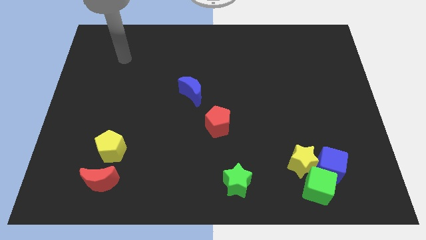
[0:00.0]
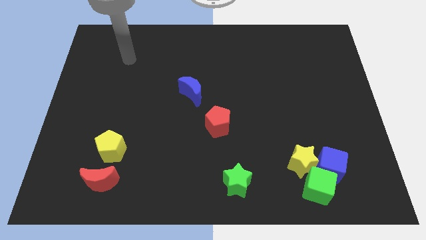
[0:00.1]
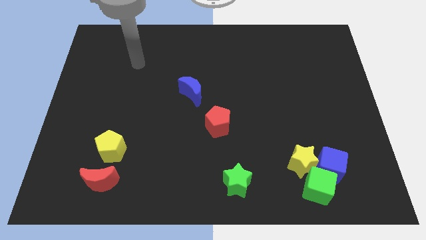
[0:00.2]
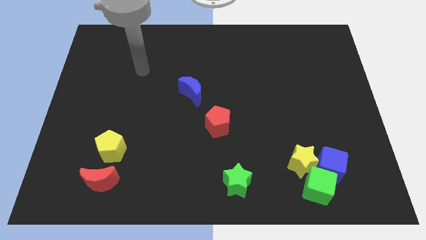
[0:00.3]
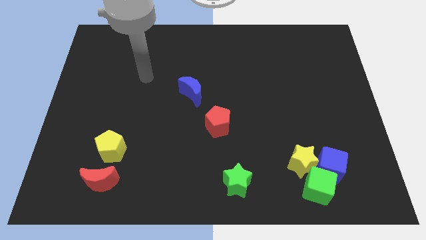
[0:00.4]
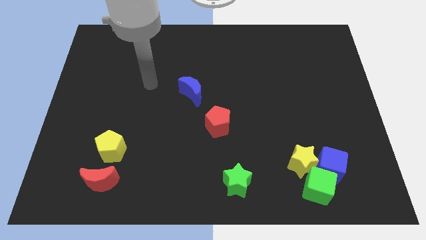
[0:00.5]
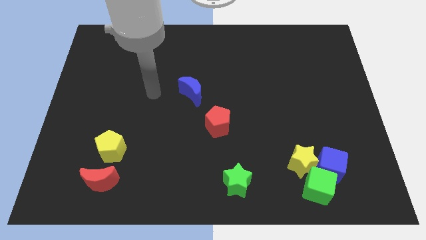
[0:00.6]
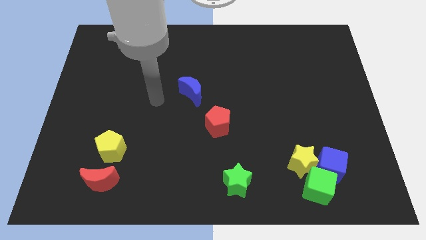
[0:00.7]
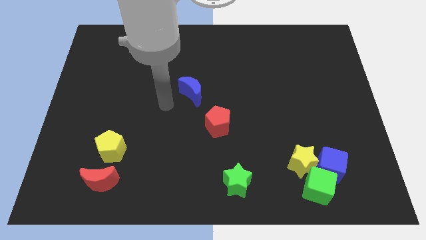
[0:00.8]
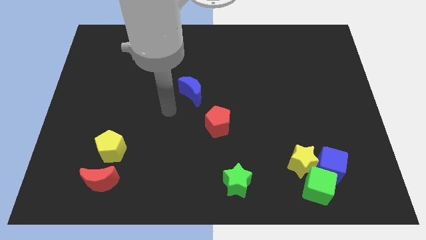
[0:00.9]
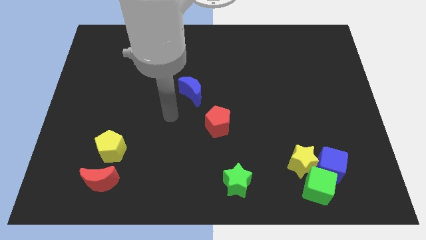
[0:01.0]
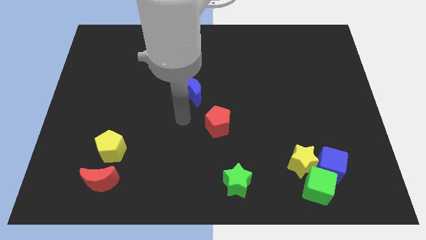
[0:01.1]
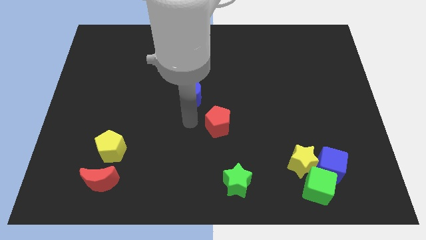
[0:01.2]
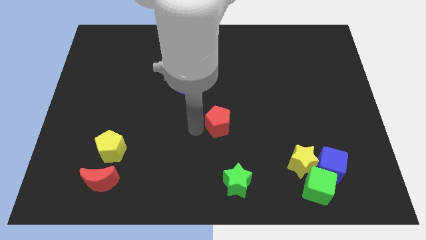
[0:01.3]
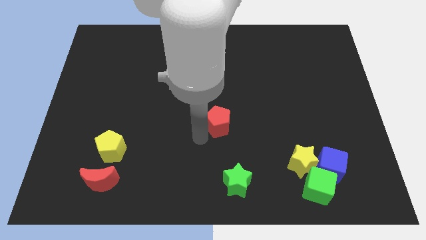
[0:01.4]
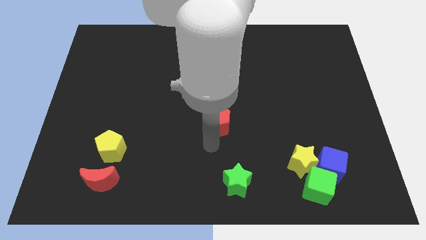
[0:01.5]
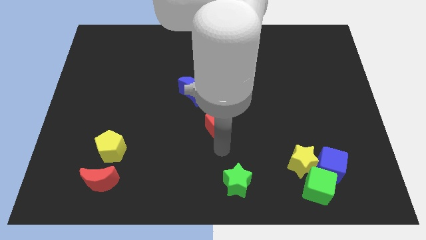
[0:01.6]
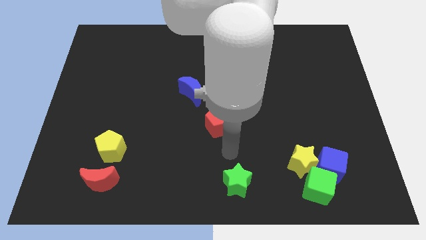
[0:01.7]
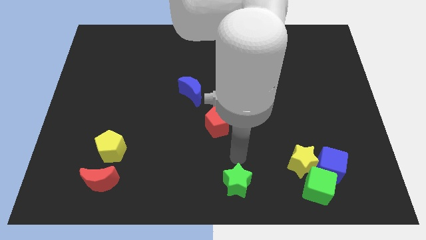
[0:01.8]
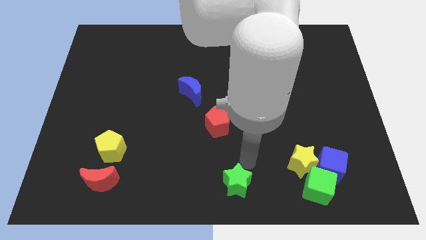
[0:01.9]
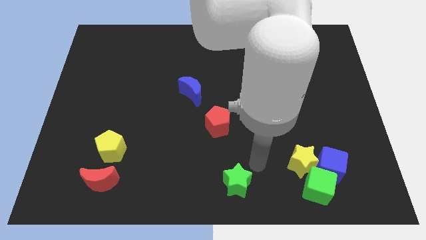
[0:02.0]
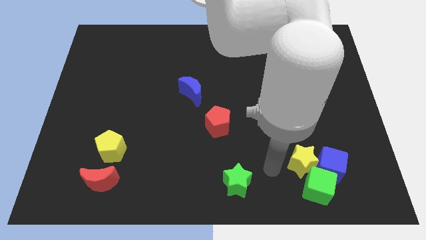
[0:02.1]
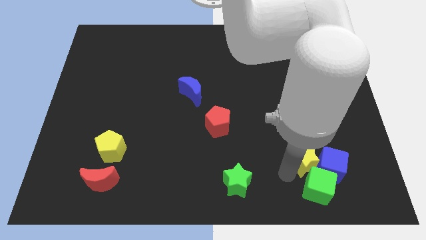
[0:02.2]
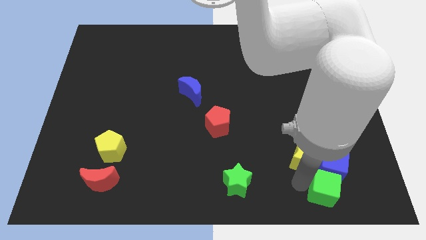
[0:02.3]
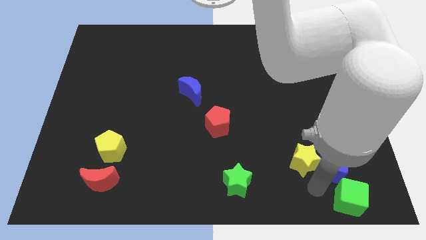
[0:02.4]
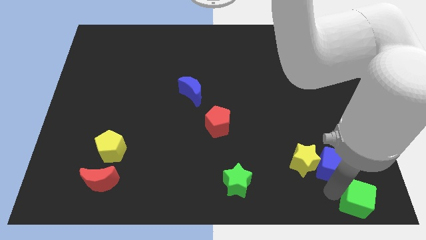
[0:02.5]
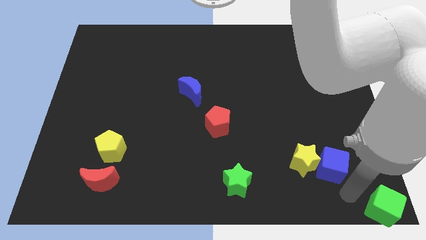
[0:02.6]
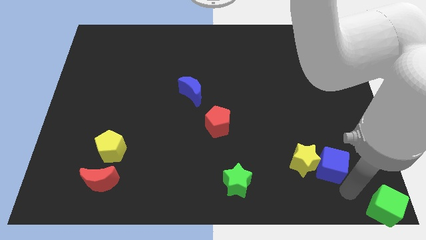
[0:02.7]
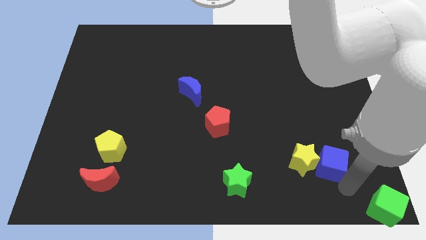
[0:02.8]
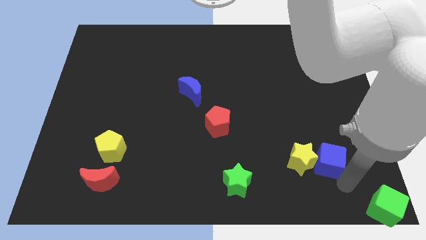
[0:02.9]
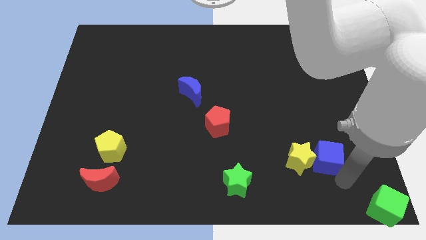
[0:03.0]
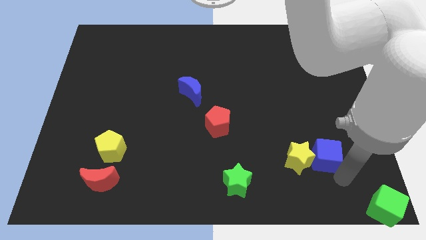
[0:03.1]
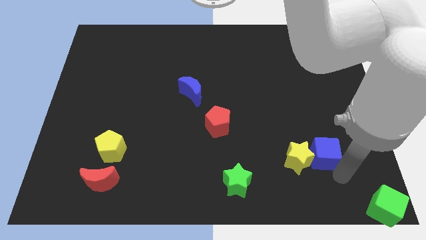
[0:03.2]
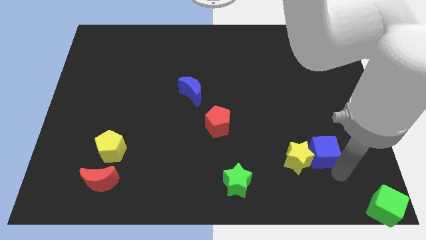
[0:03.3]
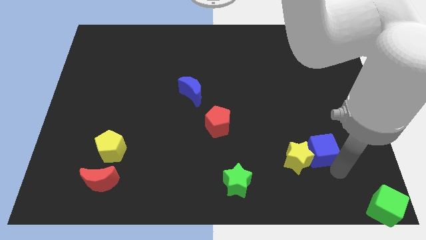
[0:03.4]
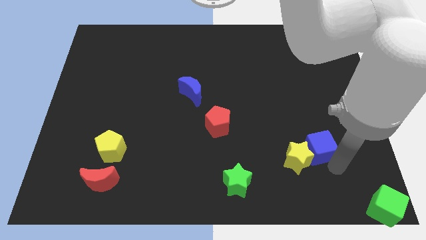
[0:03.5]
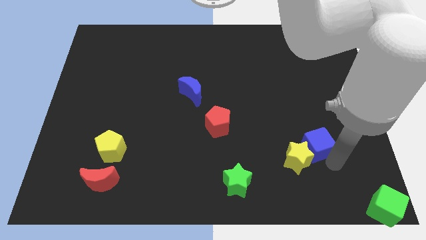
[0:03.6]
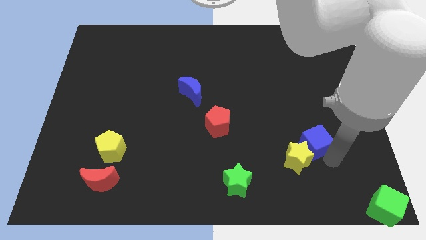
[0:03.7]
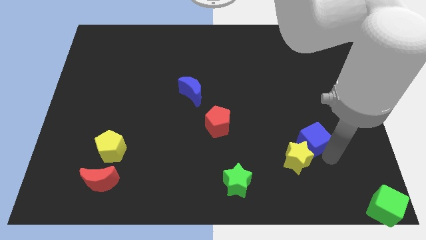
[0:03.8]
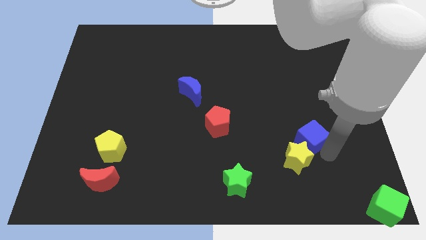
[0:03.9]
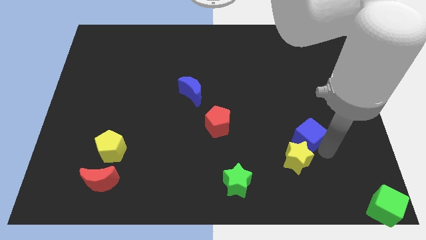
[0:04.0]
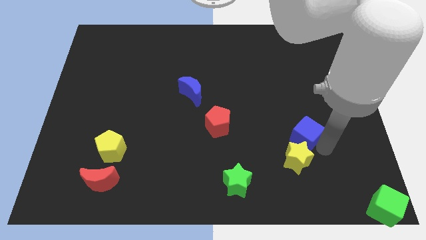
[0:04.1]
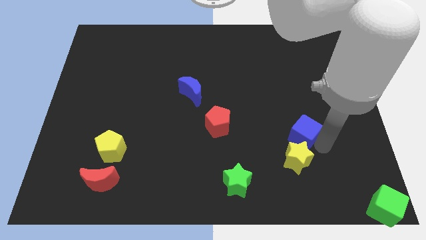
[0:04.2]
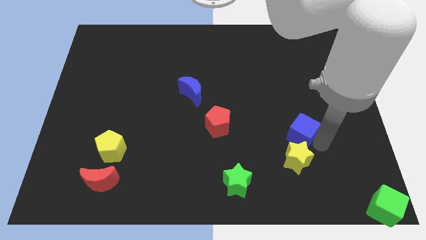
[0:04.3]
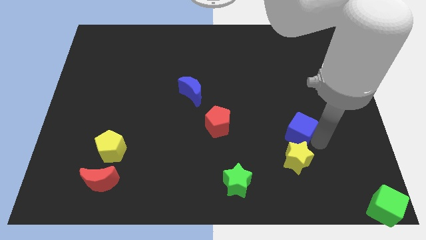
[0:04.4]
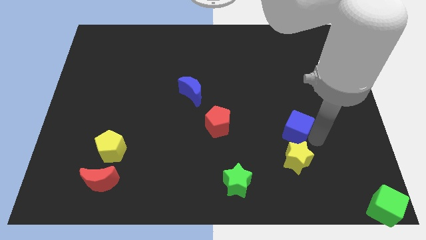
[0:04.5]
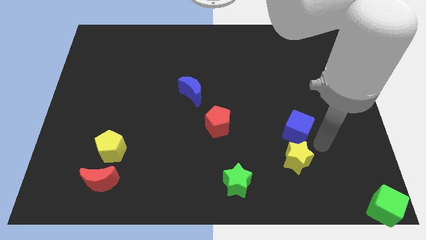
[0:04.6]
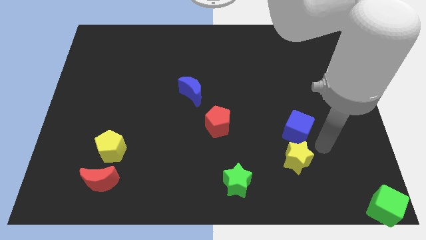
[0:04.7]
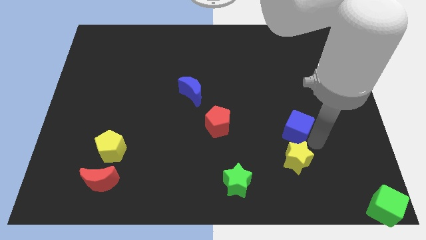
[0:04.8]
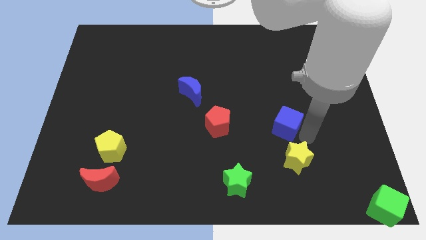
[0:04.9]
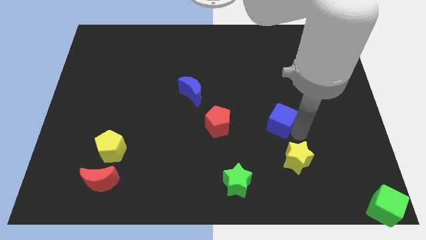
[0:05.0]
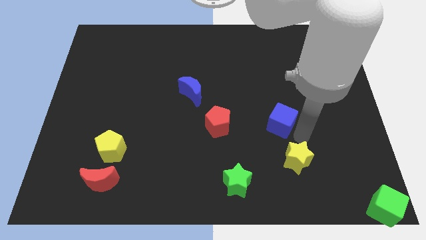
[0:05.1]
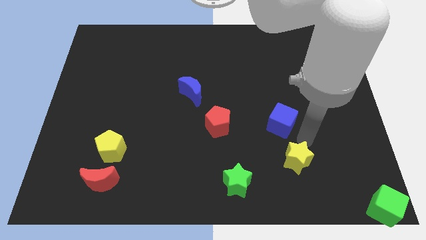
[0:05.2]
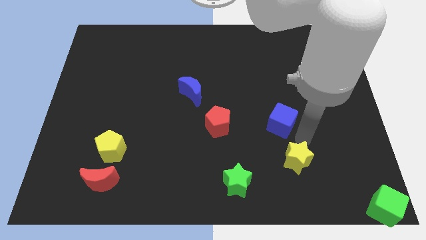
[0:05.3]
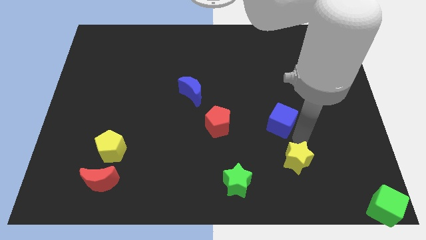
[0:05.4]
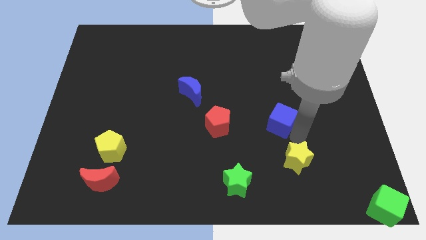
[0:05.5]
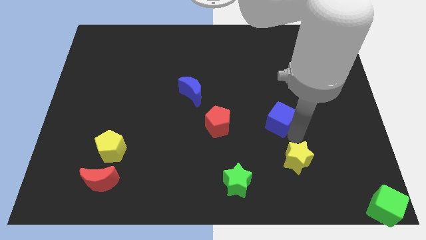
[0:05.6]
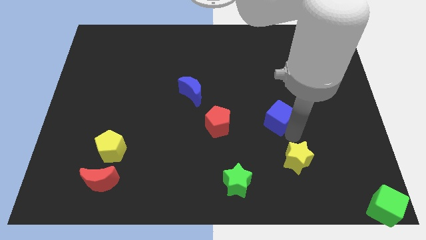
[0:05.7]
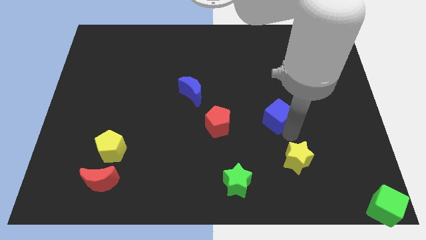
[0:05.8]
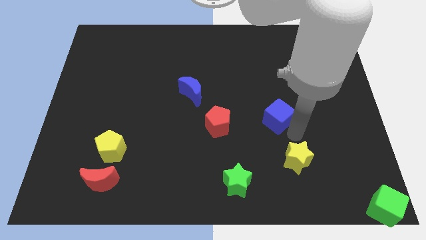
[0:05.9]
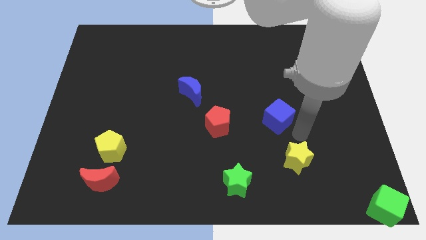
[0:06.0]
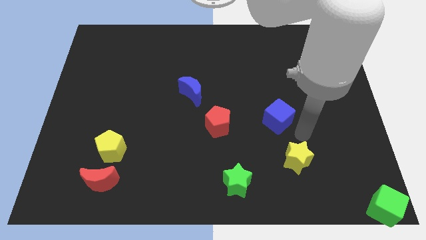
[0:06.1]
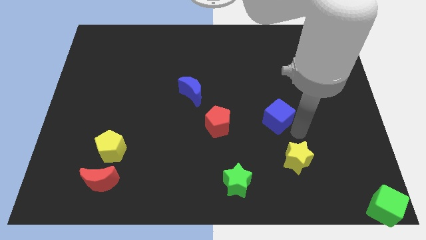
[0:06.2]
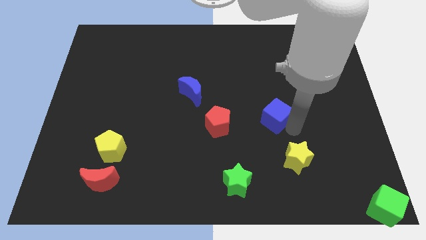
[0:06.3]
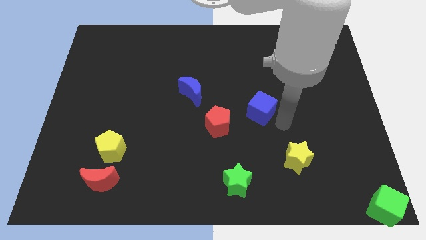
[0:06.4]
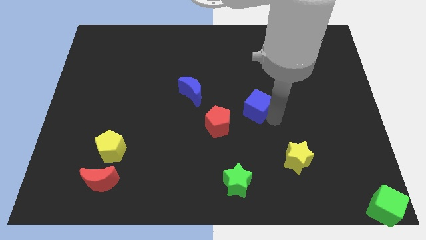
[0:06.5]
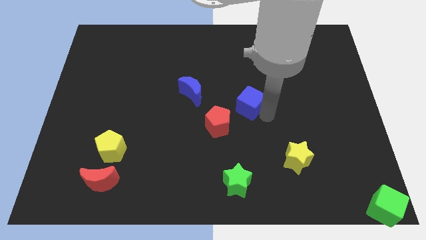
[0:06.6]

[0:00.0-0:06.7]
slide the blue cube to the right side of the blue moon

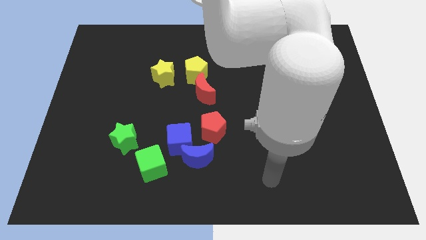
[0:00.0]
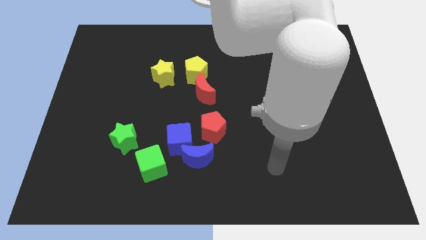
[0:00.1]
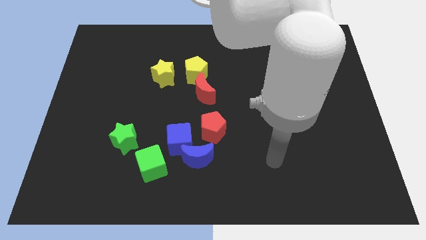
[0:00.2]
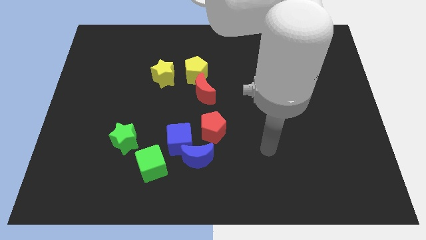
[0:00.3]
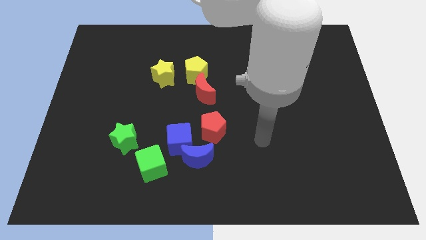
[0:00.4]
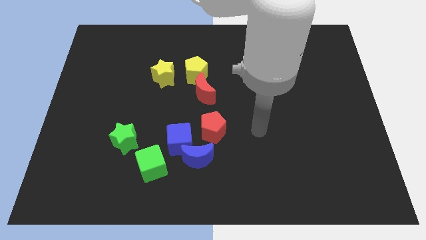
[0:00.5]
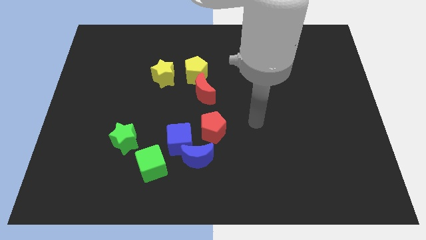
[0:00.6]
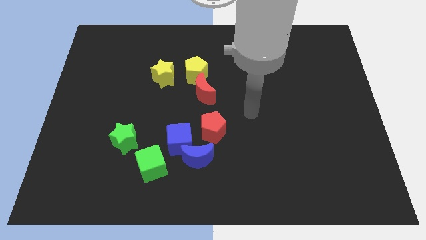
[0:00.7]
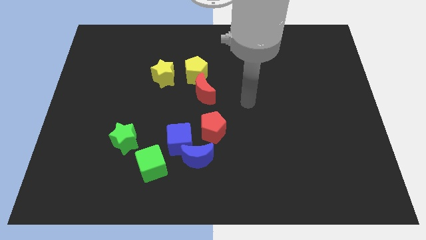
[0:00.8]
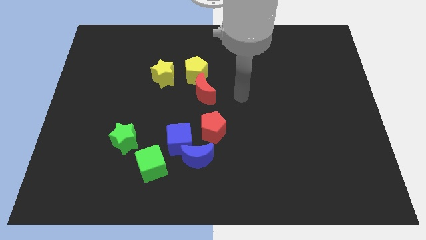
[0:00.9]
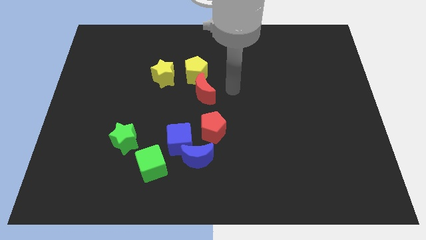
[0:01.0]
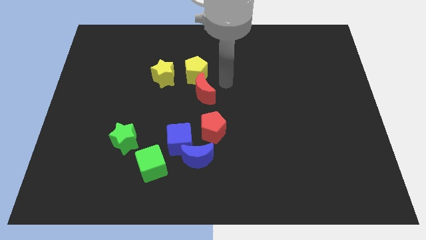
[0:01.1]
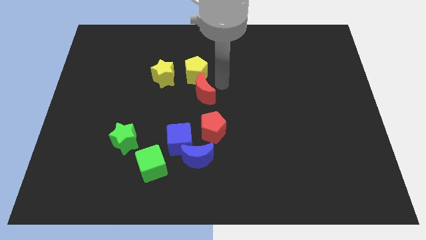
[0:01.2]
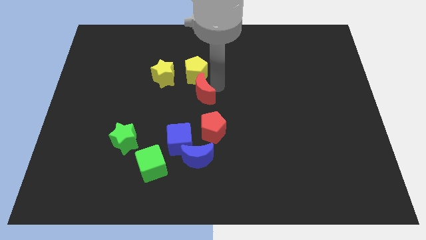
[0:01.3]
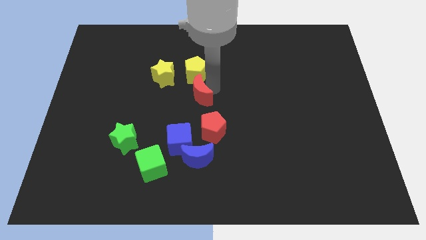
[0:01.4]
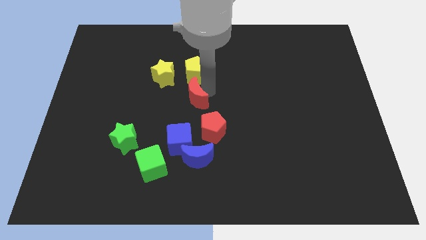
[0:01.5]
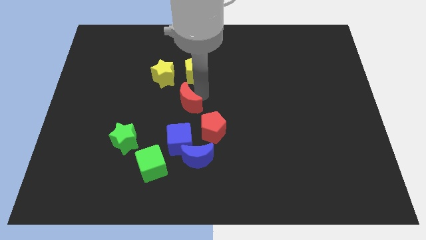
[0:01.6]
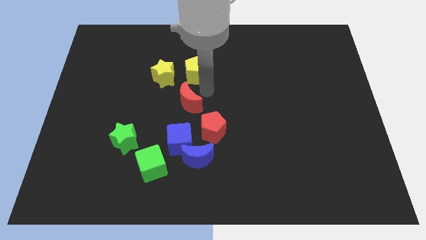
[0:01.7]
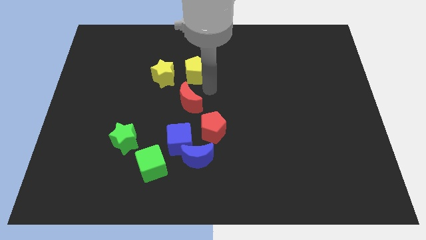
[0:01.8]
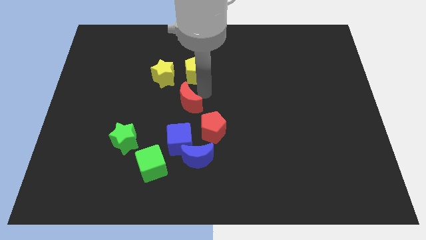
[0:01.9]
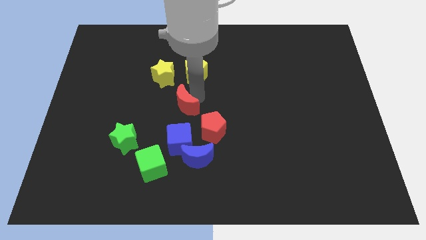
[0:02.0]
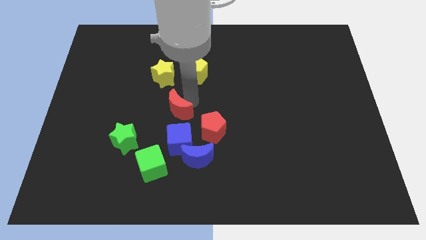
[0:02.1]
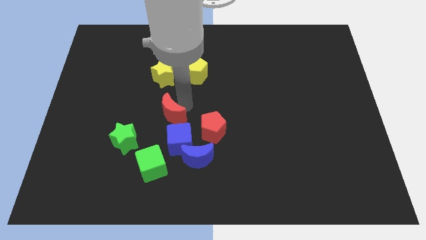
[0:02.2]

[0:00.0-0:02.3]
slide the red moon to the top left of the blue cube
